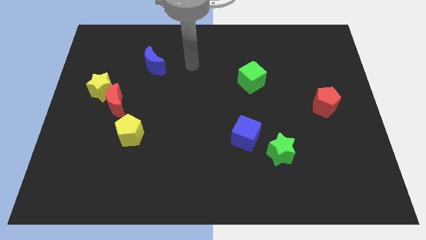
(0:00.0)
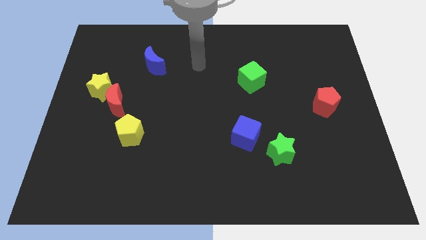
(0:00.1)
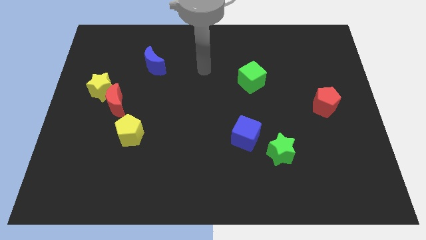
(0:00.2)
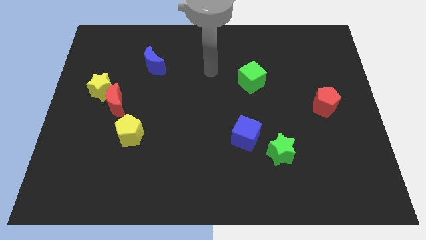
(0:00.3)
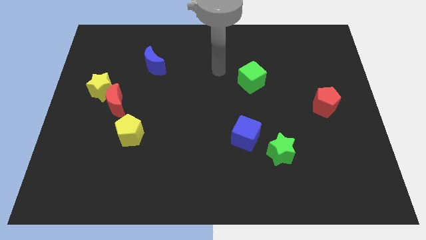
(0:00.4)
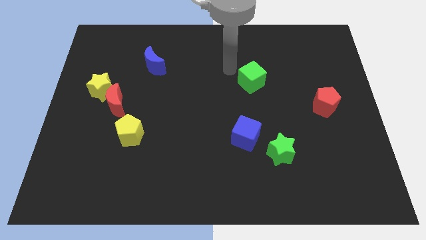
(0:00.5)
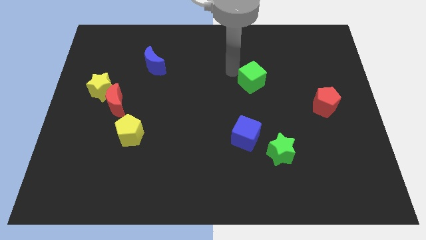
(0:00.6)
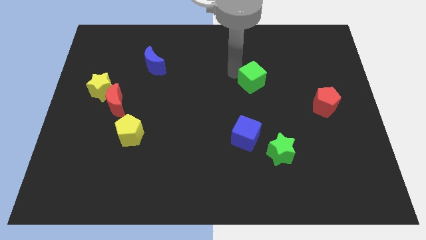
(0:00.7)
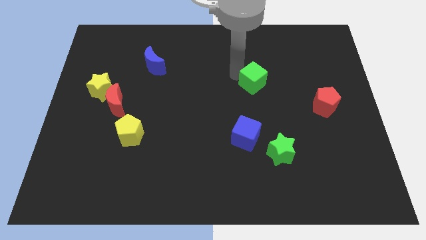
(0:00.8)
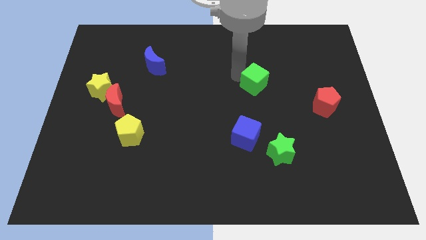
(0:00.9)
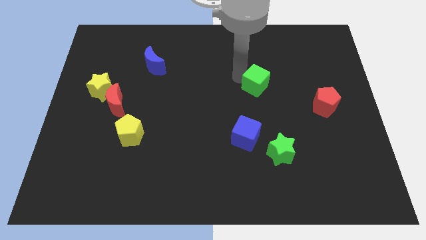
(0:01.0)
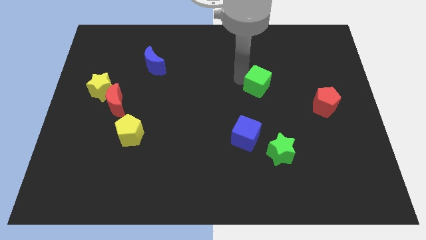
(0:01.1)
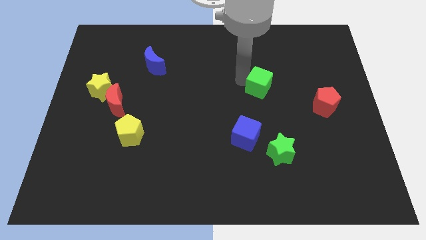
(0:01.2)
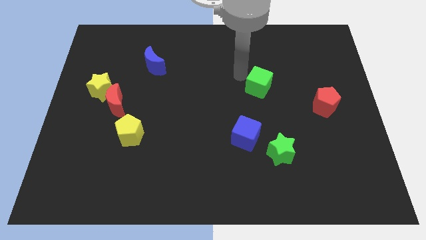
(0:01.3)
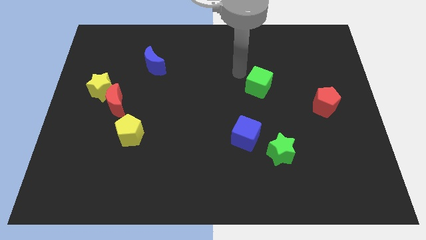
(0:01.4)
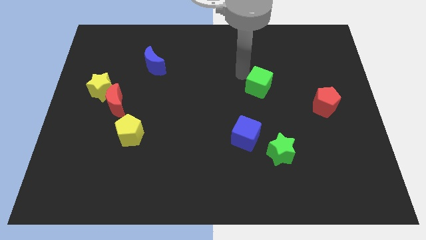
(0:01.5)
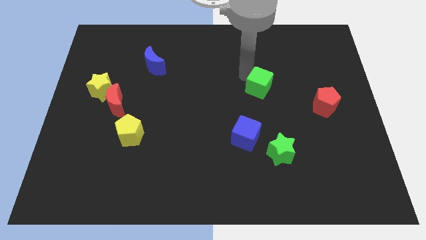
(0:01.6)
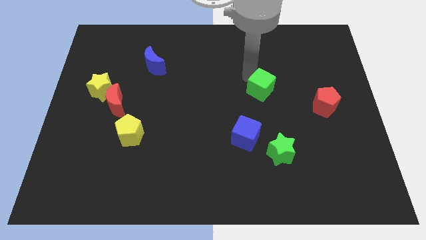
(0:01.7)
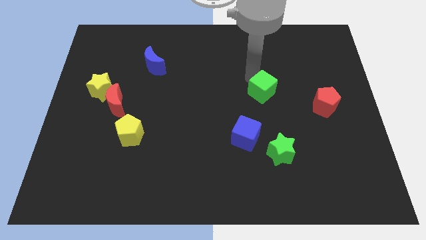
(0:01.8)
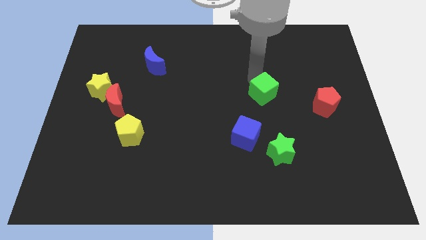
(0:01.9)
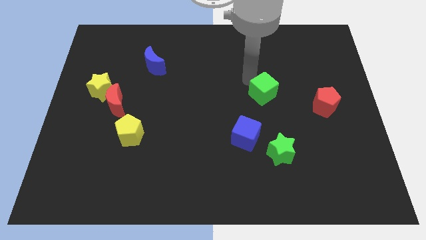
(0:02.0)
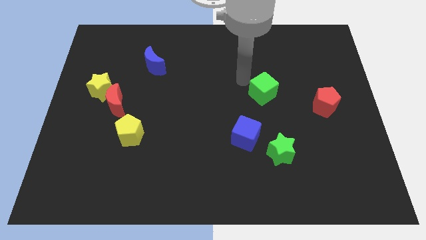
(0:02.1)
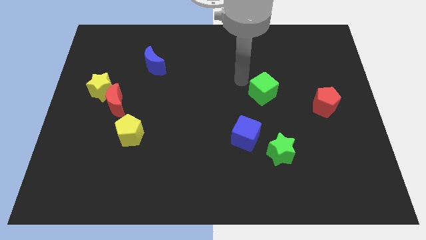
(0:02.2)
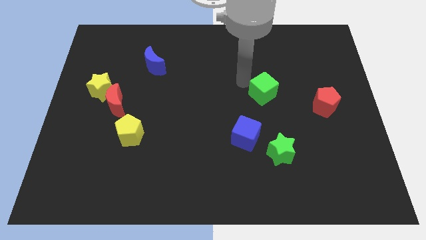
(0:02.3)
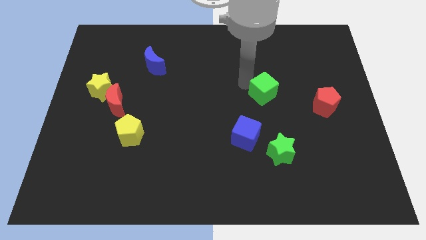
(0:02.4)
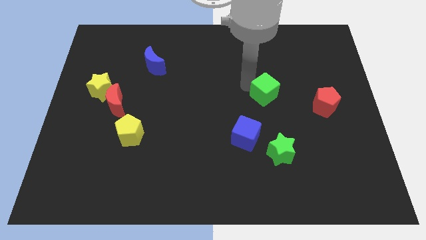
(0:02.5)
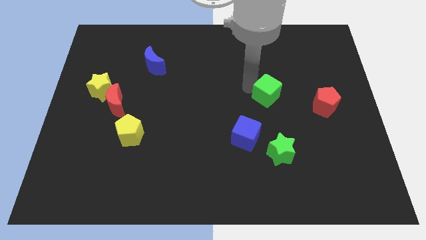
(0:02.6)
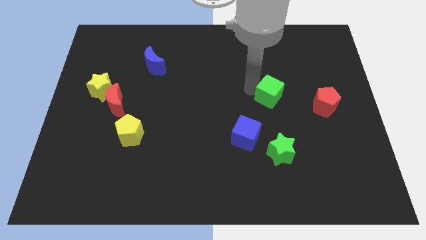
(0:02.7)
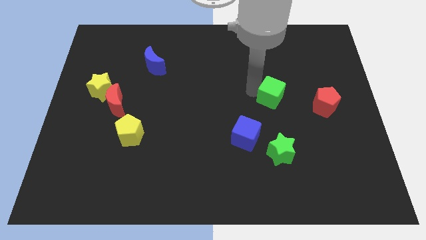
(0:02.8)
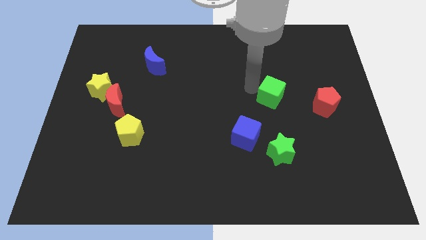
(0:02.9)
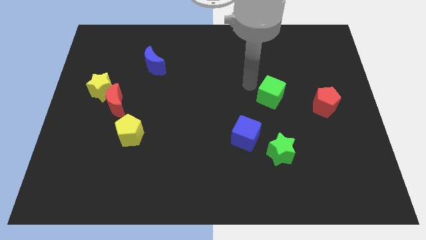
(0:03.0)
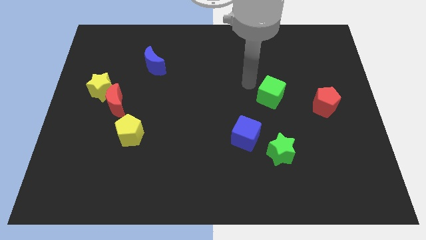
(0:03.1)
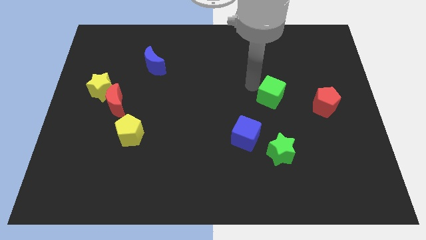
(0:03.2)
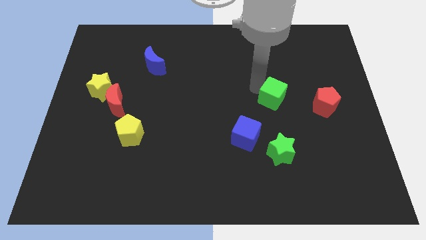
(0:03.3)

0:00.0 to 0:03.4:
slide the green cube diagonally down and right a little bit

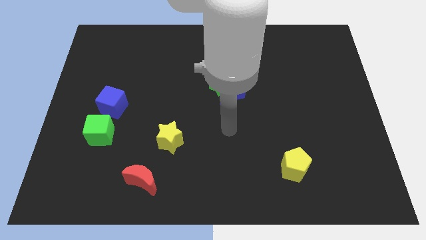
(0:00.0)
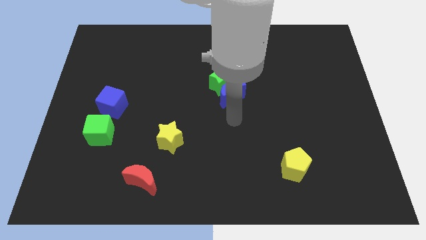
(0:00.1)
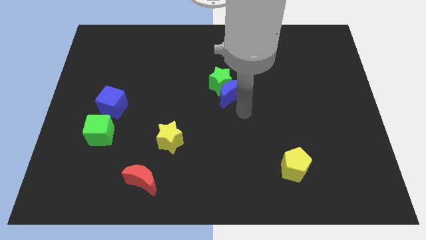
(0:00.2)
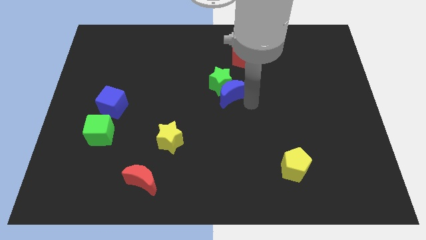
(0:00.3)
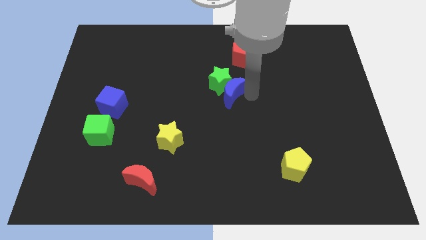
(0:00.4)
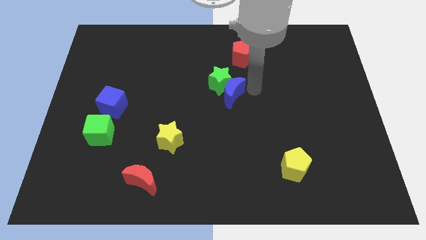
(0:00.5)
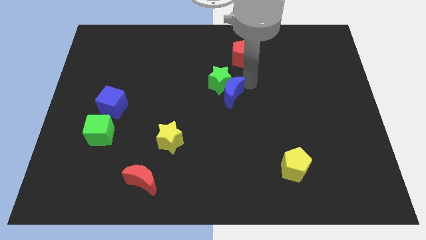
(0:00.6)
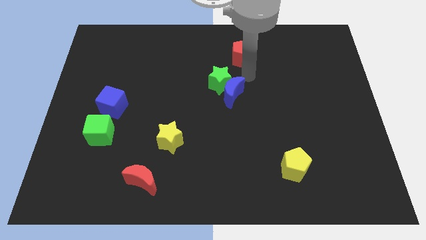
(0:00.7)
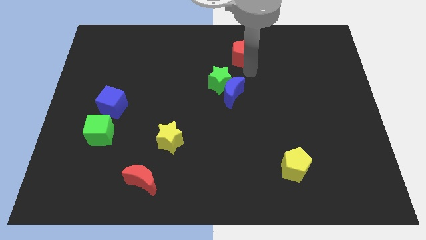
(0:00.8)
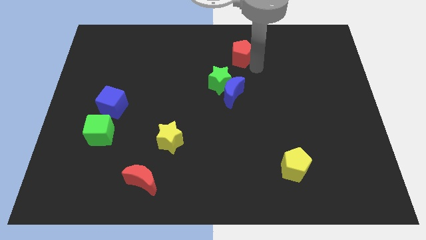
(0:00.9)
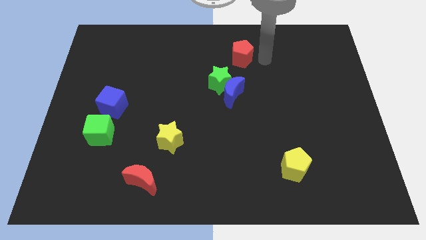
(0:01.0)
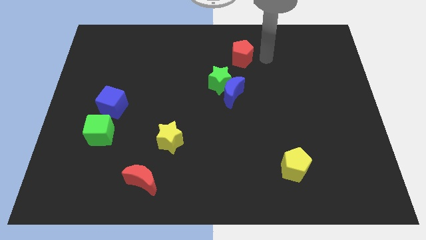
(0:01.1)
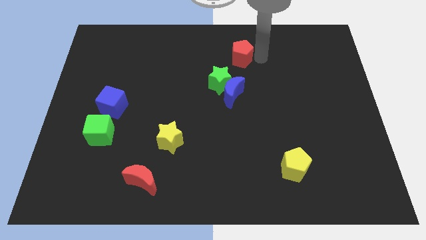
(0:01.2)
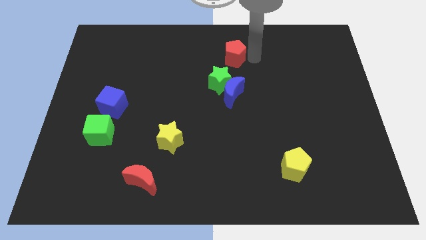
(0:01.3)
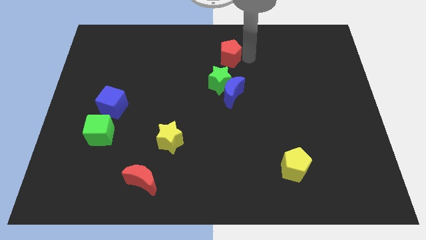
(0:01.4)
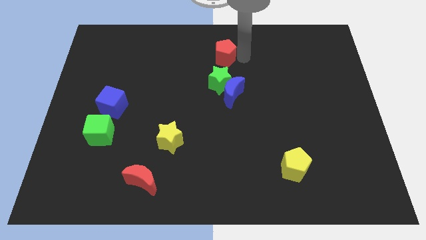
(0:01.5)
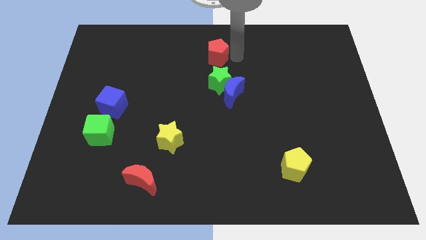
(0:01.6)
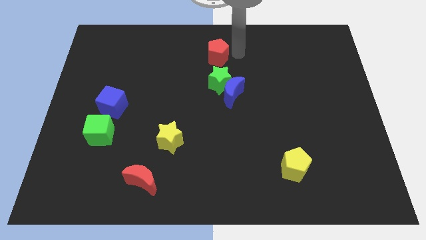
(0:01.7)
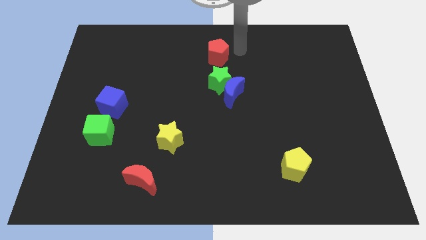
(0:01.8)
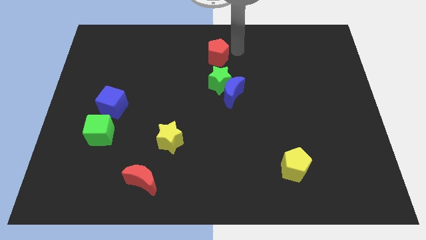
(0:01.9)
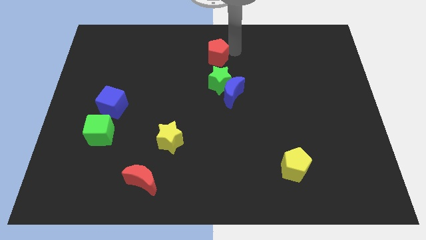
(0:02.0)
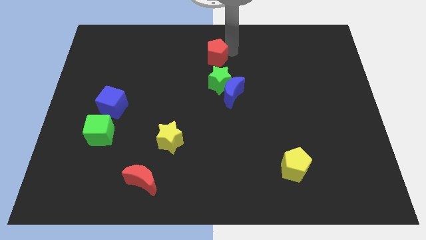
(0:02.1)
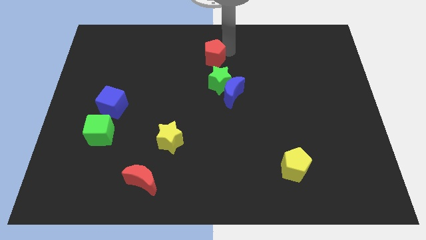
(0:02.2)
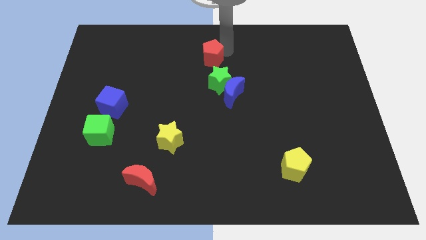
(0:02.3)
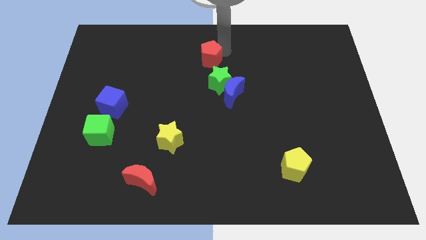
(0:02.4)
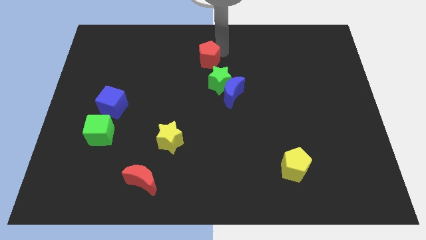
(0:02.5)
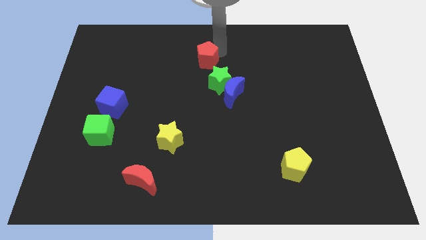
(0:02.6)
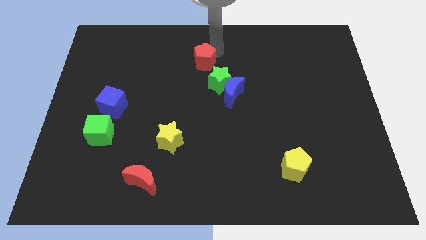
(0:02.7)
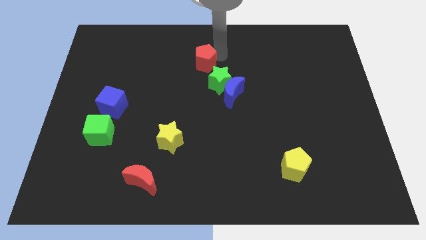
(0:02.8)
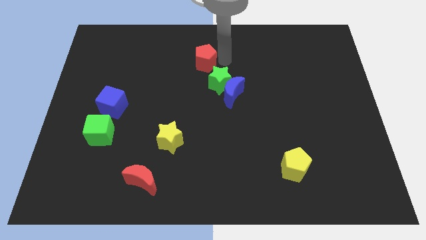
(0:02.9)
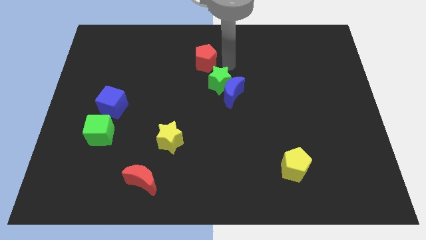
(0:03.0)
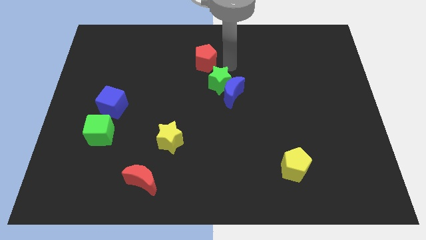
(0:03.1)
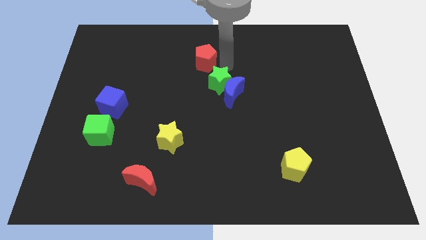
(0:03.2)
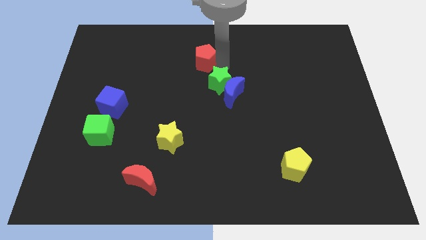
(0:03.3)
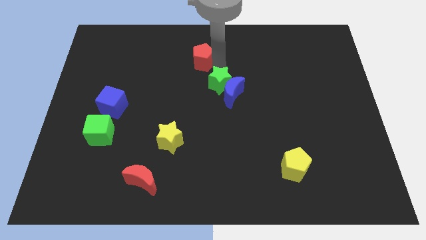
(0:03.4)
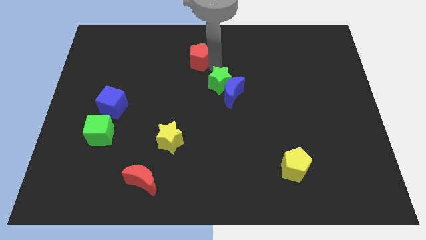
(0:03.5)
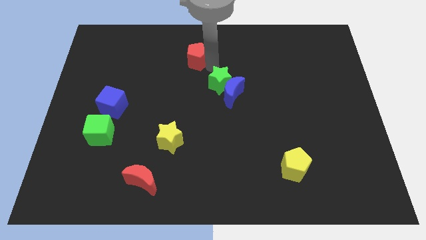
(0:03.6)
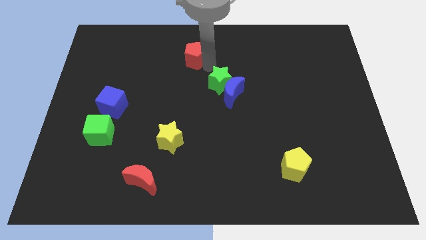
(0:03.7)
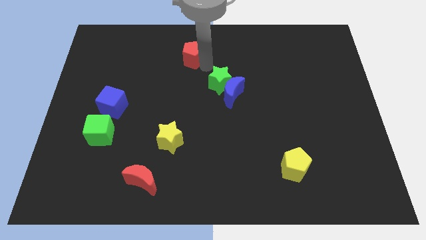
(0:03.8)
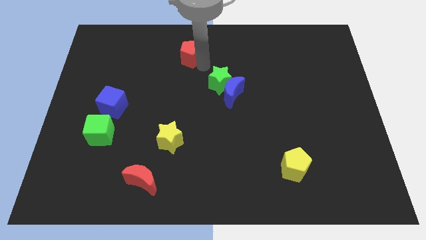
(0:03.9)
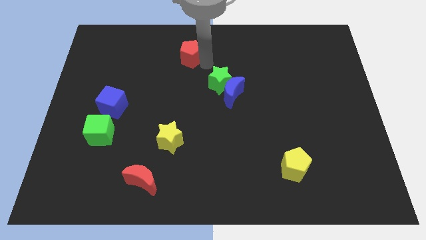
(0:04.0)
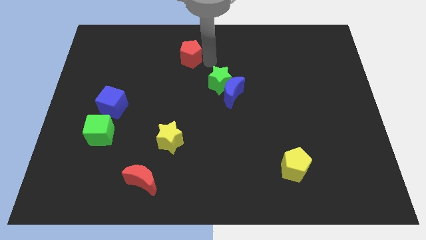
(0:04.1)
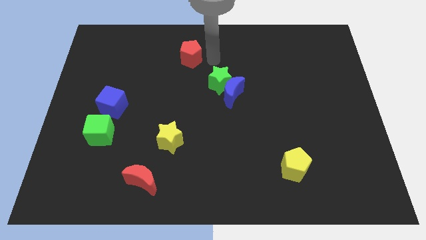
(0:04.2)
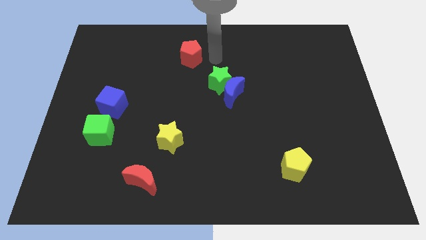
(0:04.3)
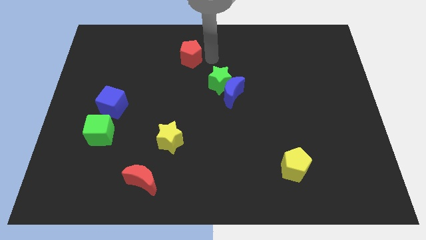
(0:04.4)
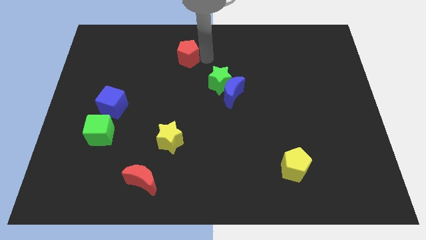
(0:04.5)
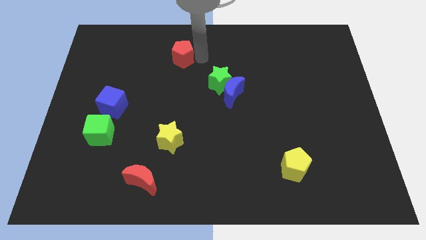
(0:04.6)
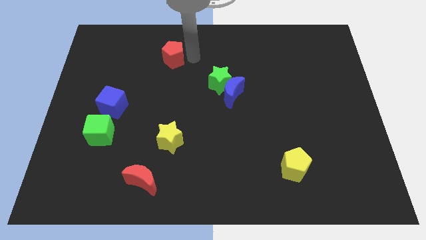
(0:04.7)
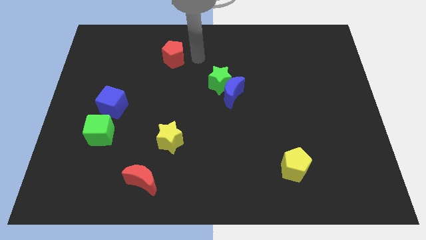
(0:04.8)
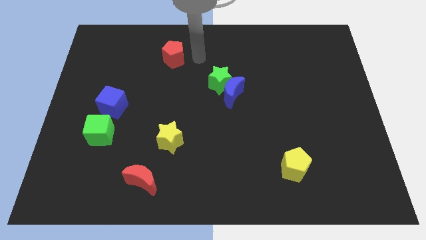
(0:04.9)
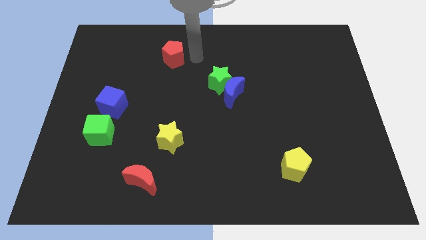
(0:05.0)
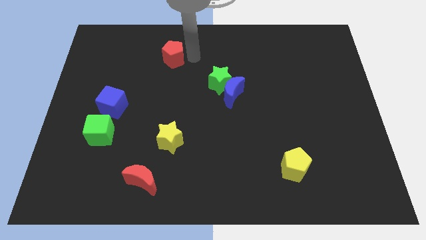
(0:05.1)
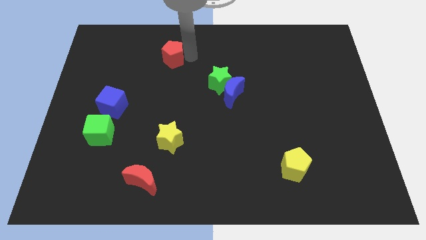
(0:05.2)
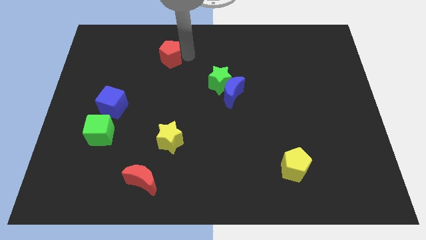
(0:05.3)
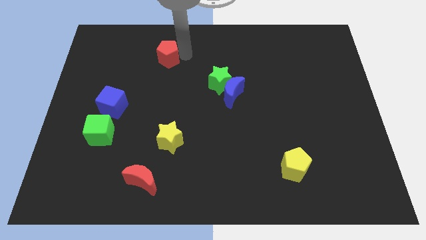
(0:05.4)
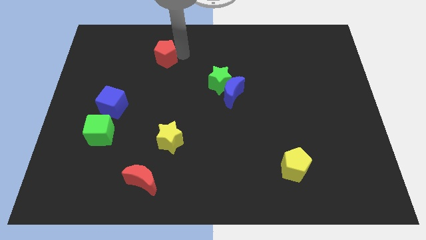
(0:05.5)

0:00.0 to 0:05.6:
push the red pentagon to the left
